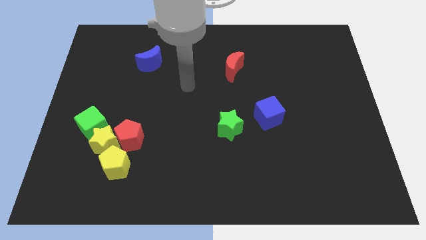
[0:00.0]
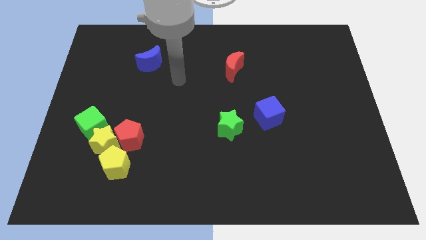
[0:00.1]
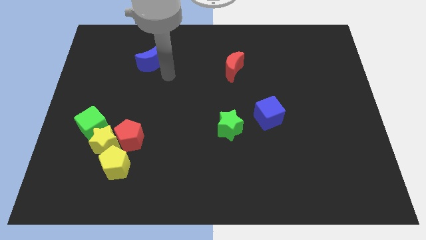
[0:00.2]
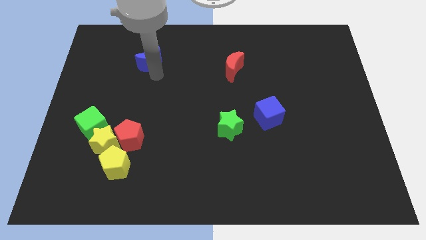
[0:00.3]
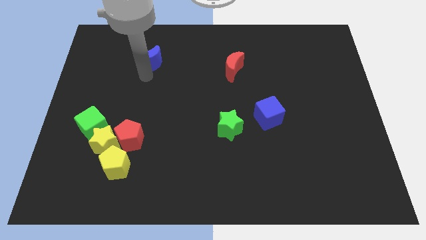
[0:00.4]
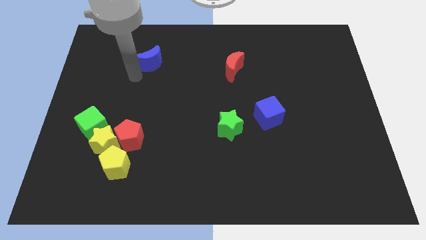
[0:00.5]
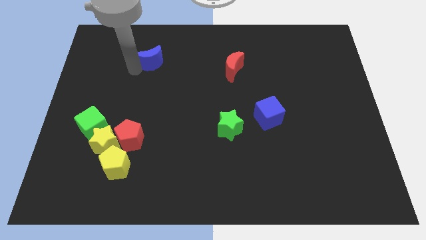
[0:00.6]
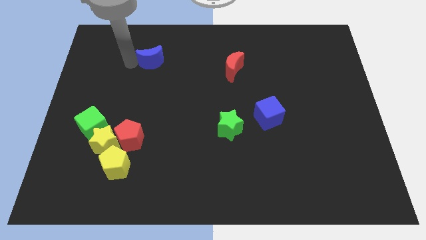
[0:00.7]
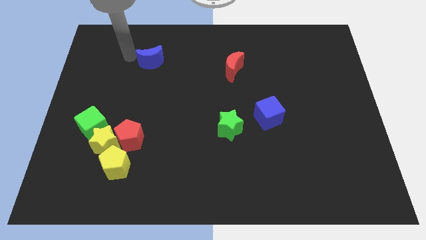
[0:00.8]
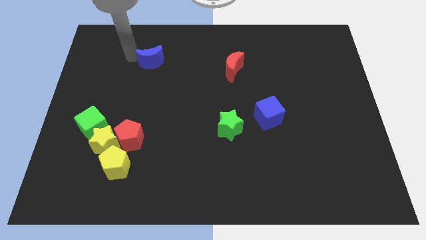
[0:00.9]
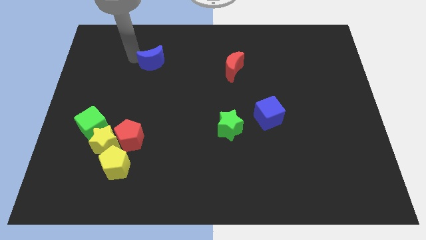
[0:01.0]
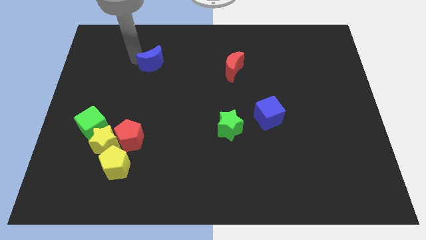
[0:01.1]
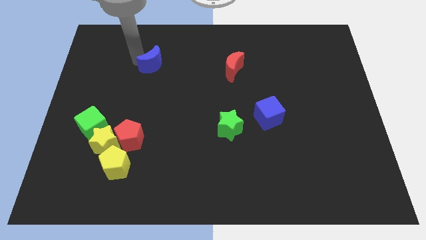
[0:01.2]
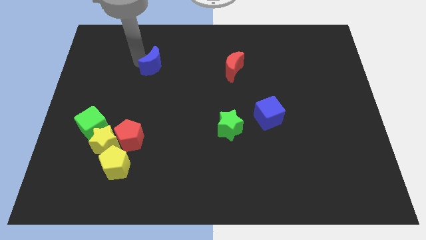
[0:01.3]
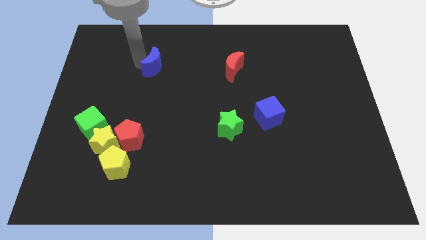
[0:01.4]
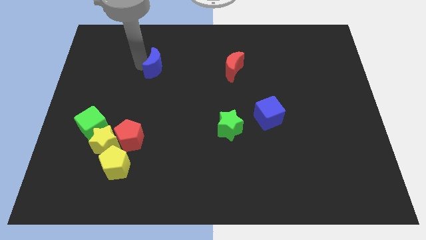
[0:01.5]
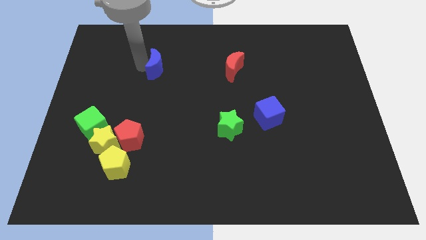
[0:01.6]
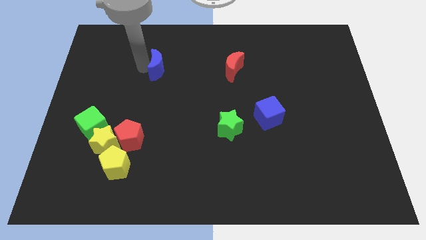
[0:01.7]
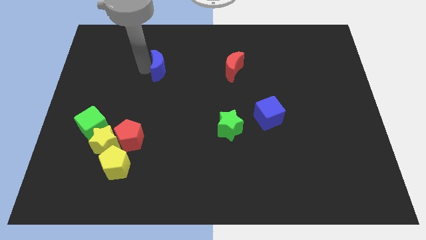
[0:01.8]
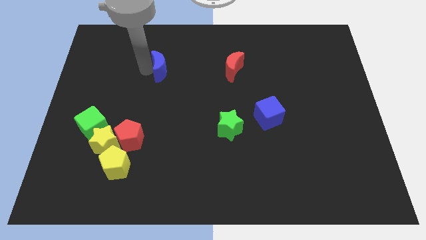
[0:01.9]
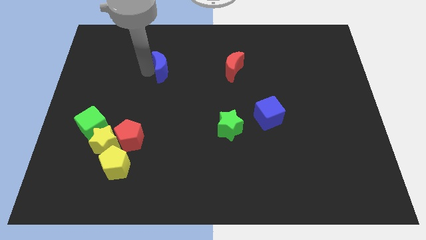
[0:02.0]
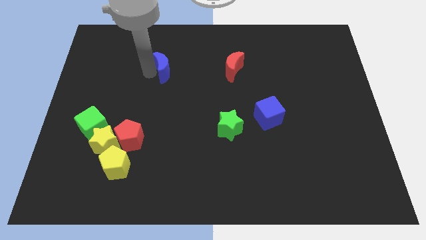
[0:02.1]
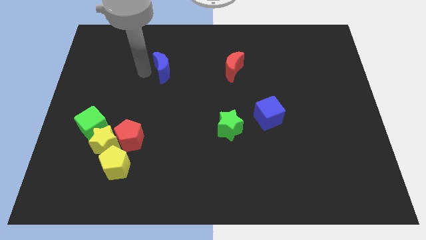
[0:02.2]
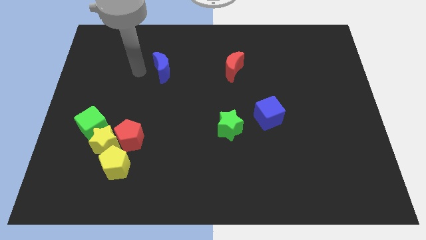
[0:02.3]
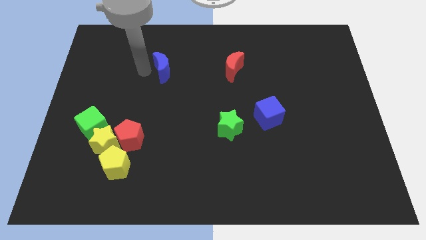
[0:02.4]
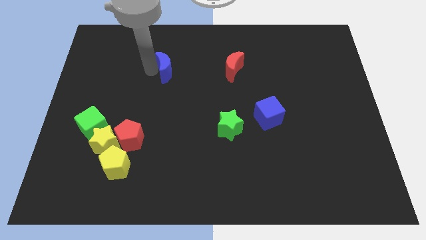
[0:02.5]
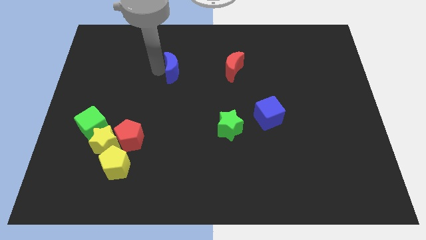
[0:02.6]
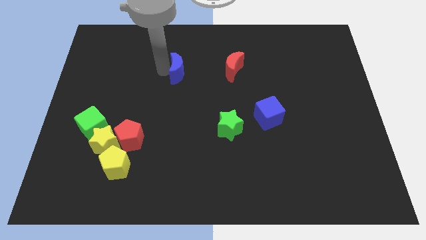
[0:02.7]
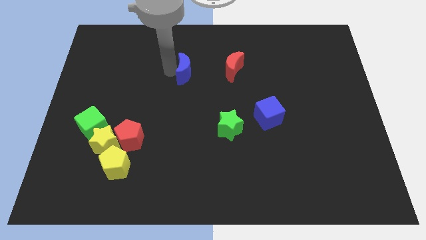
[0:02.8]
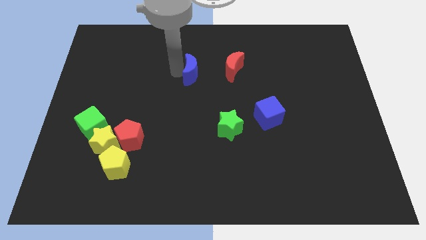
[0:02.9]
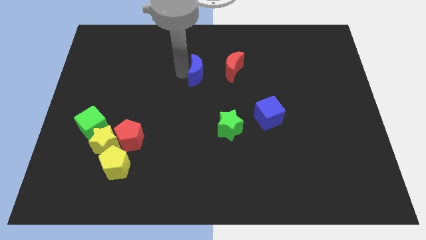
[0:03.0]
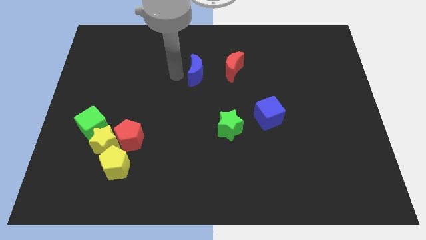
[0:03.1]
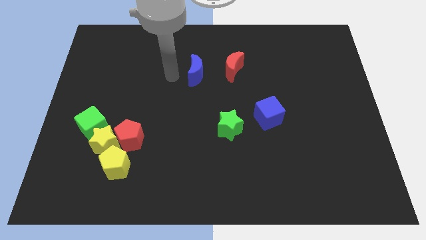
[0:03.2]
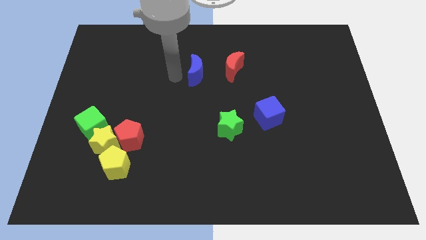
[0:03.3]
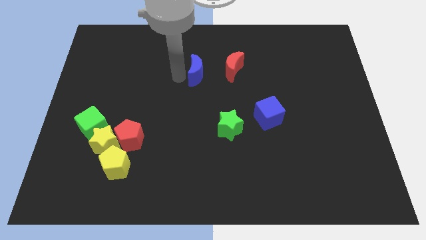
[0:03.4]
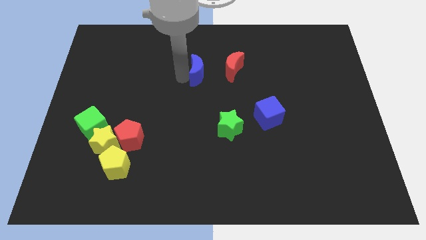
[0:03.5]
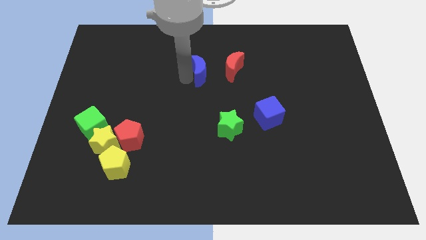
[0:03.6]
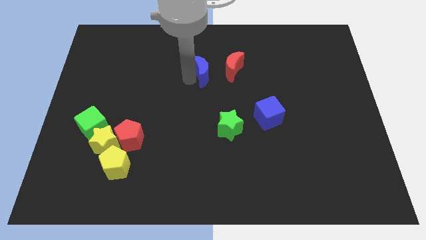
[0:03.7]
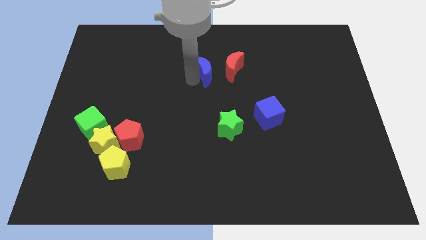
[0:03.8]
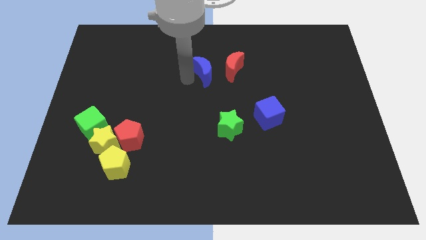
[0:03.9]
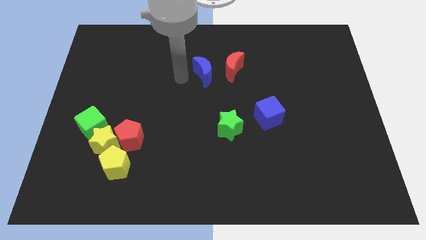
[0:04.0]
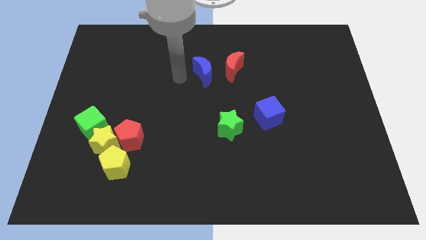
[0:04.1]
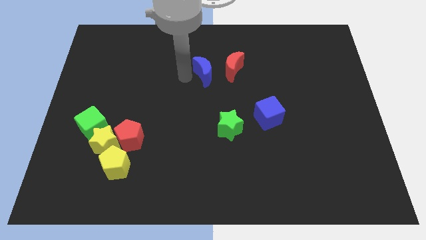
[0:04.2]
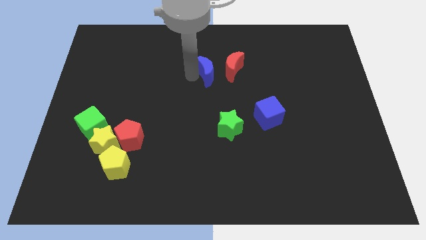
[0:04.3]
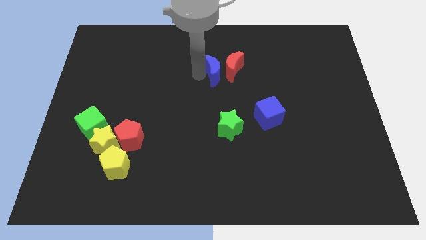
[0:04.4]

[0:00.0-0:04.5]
push the blue moon close to the red moon

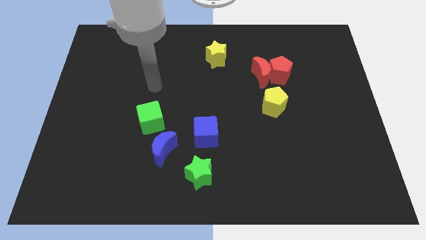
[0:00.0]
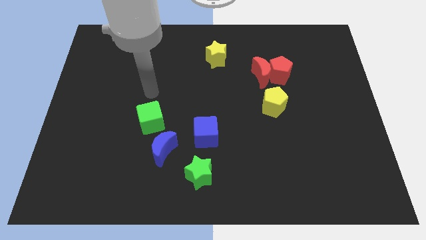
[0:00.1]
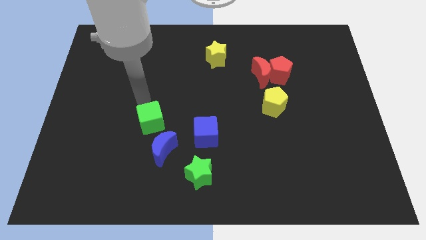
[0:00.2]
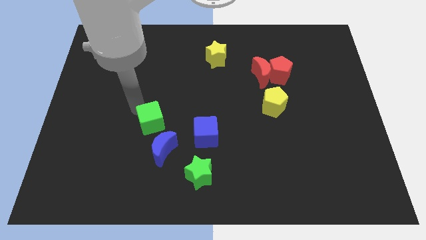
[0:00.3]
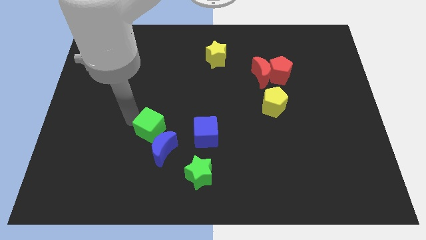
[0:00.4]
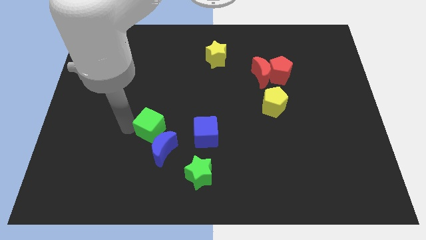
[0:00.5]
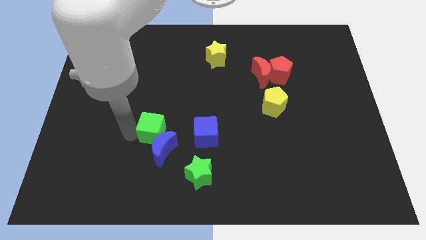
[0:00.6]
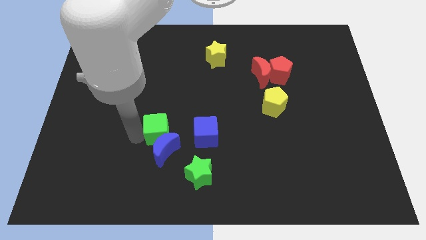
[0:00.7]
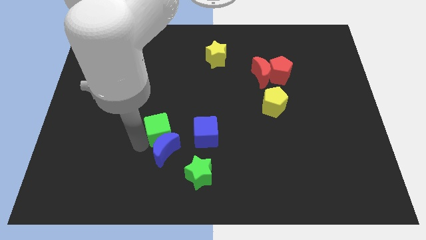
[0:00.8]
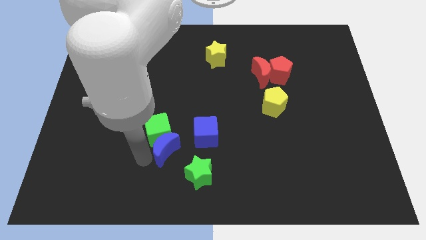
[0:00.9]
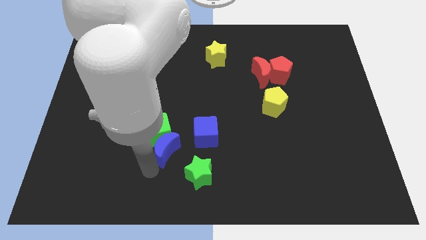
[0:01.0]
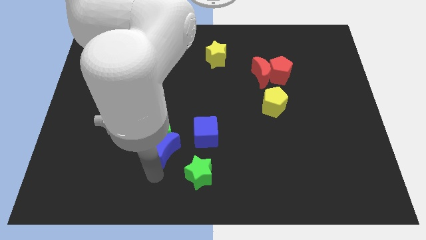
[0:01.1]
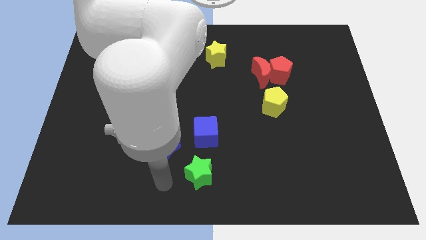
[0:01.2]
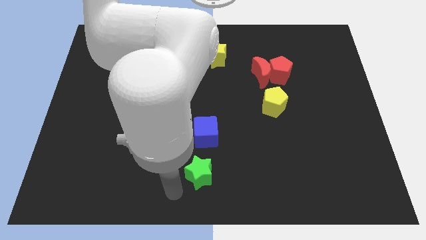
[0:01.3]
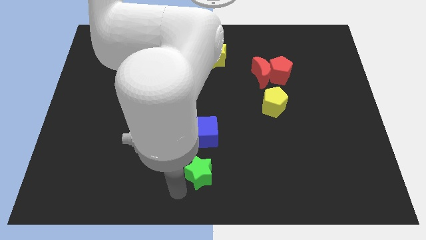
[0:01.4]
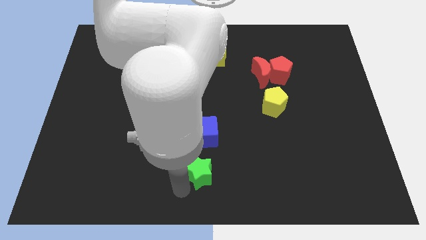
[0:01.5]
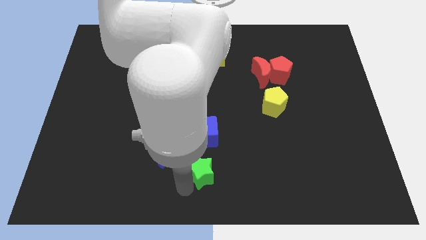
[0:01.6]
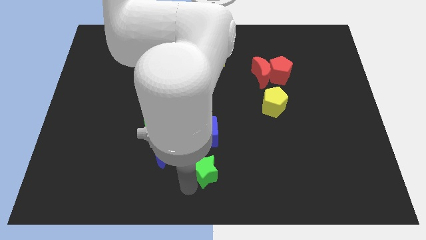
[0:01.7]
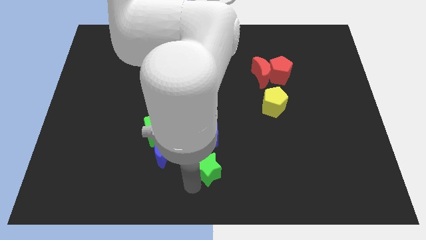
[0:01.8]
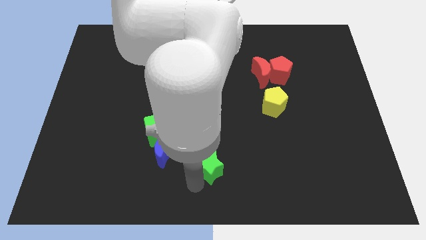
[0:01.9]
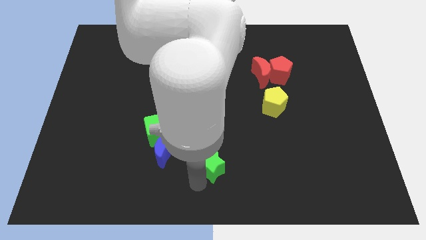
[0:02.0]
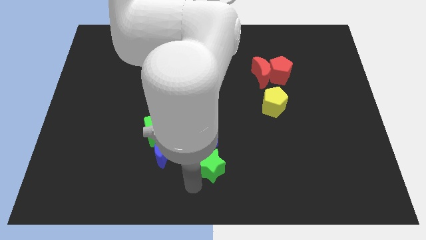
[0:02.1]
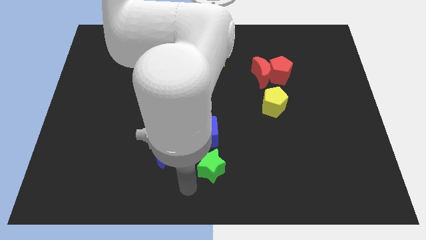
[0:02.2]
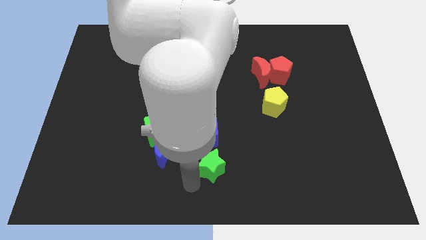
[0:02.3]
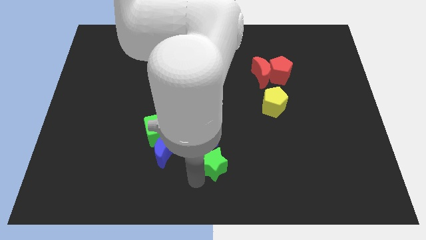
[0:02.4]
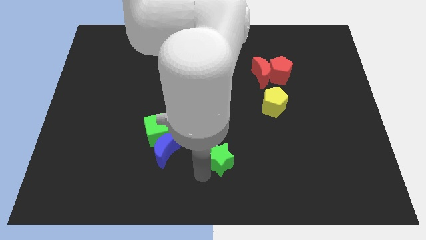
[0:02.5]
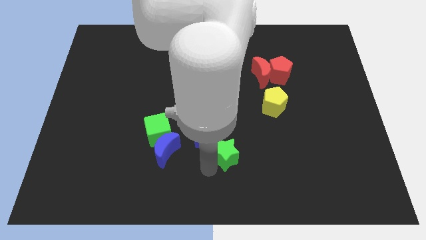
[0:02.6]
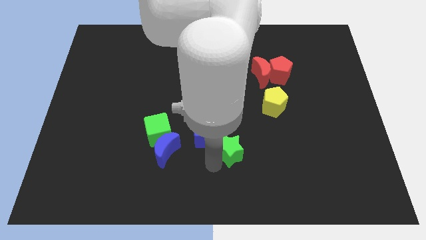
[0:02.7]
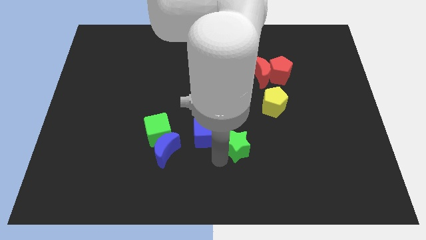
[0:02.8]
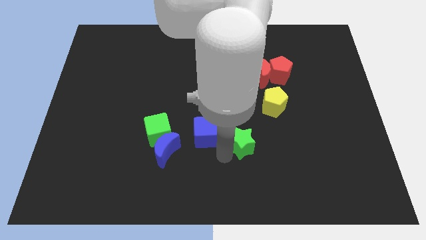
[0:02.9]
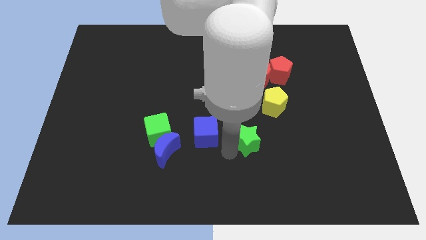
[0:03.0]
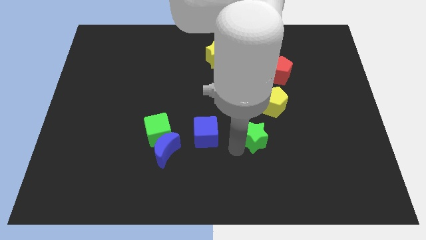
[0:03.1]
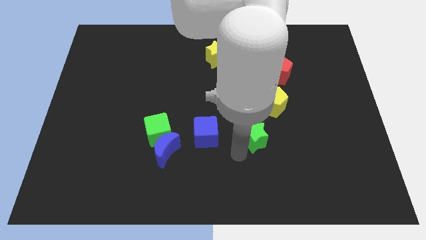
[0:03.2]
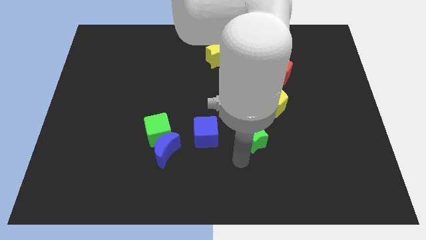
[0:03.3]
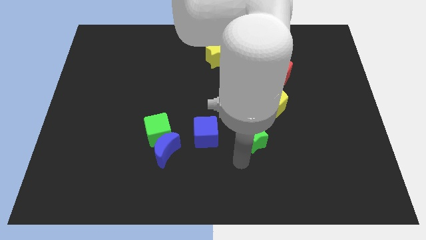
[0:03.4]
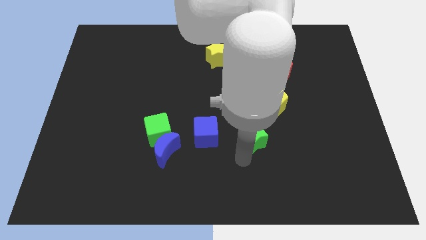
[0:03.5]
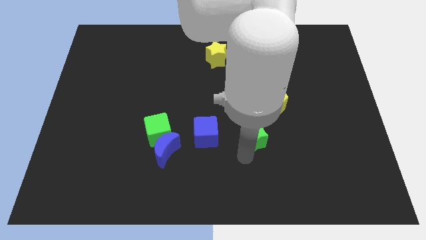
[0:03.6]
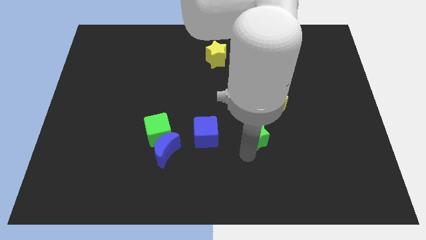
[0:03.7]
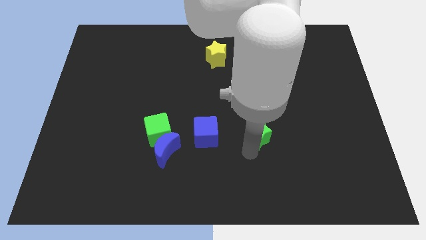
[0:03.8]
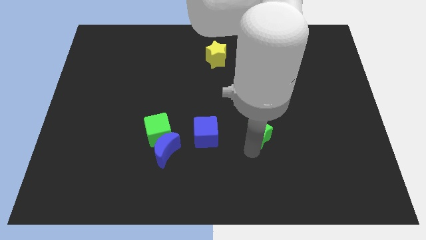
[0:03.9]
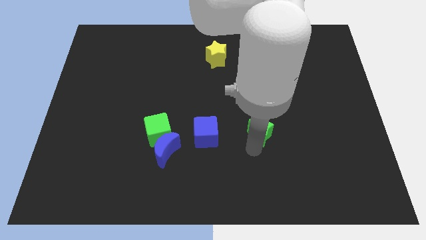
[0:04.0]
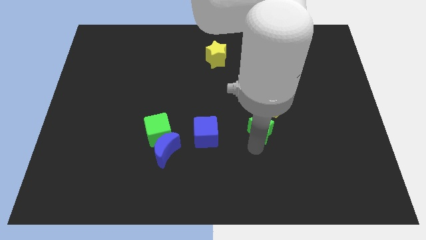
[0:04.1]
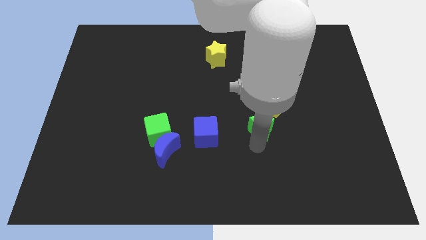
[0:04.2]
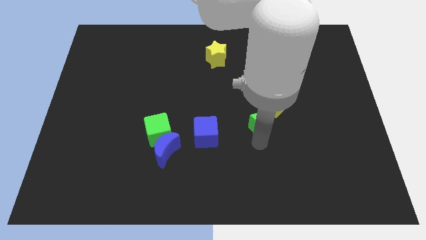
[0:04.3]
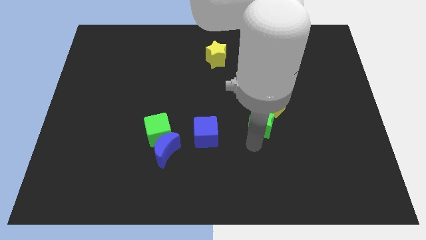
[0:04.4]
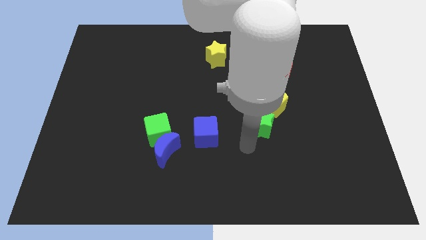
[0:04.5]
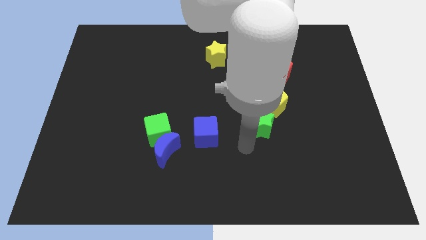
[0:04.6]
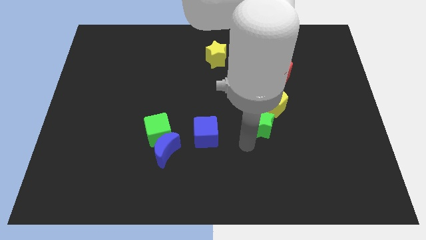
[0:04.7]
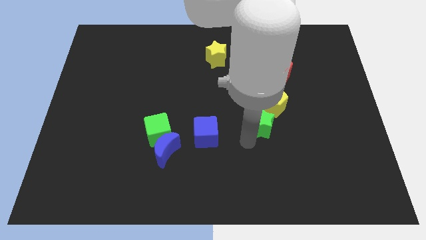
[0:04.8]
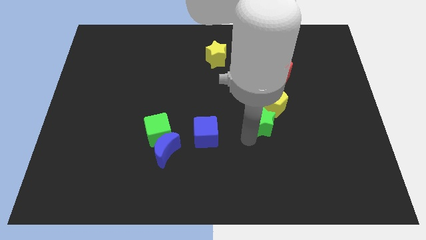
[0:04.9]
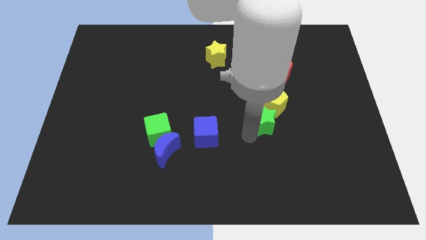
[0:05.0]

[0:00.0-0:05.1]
put the green star next to the yellow pentagon
